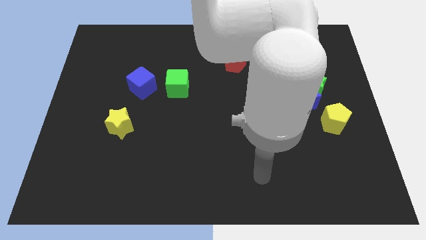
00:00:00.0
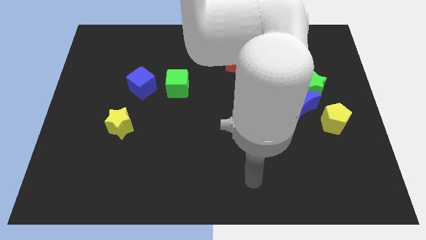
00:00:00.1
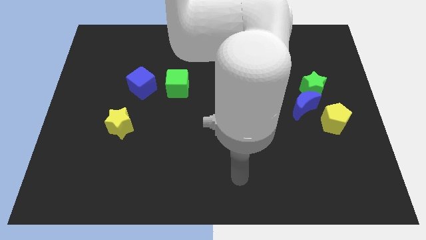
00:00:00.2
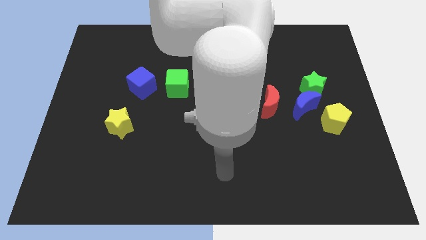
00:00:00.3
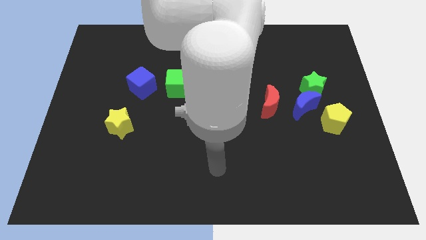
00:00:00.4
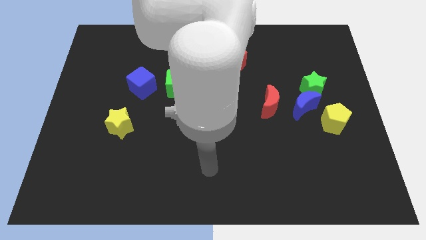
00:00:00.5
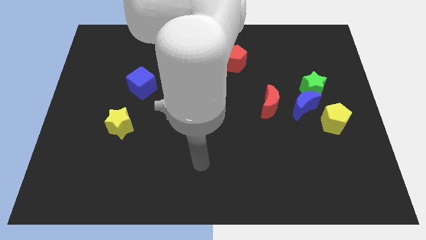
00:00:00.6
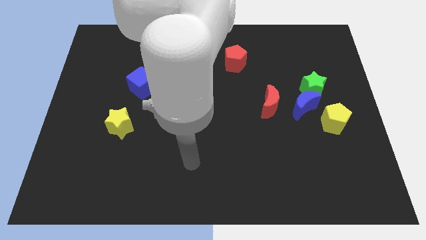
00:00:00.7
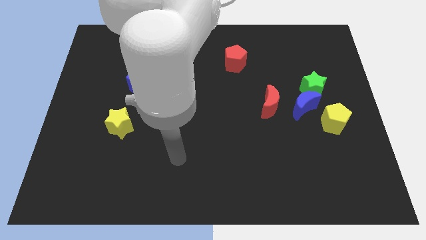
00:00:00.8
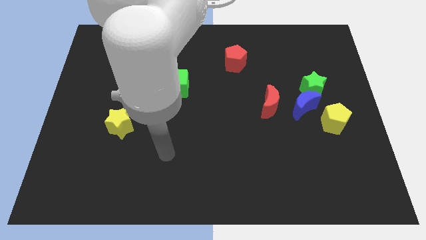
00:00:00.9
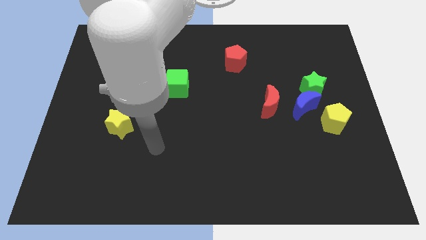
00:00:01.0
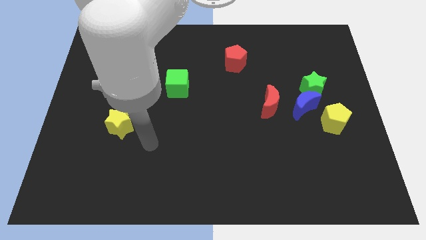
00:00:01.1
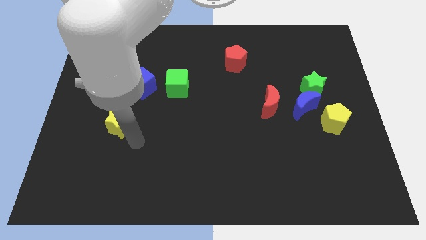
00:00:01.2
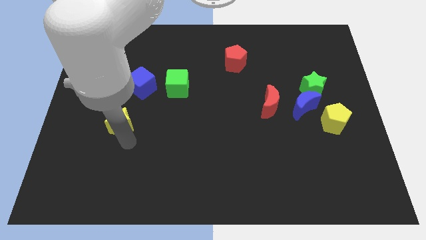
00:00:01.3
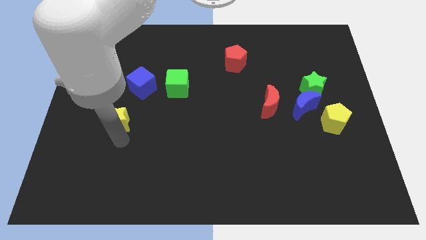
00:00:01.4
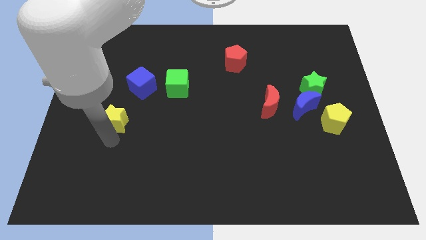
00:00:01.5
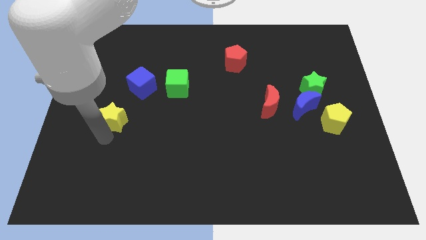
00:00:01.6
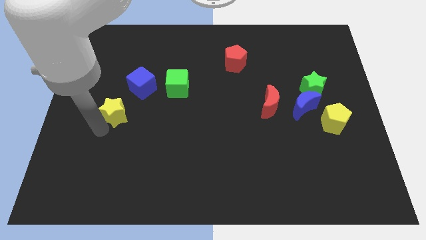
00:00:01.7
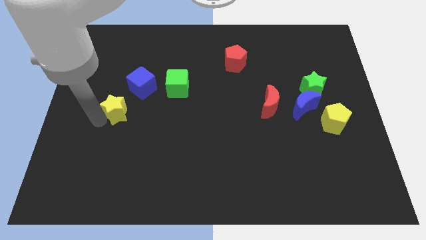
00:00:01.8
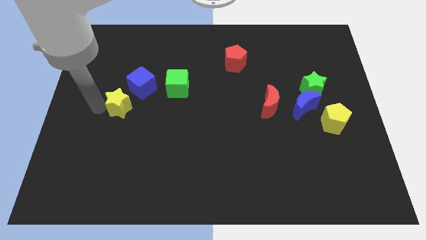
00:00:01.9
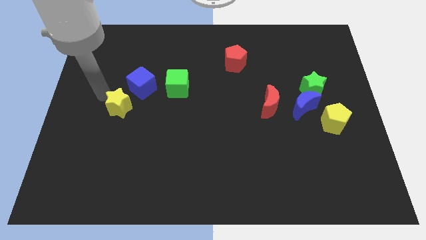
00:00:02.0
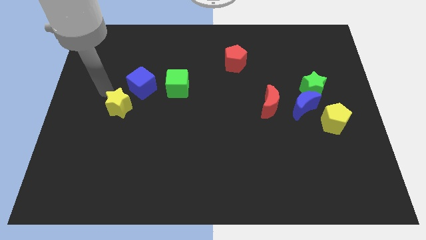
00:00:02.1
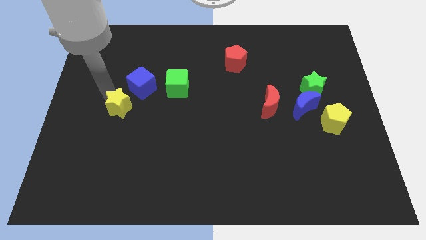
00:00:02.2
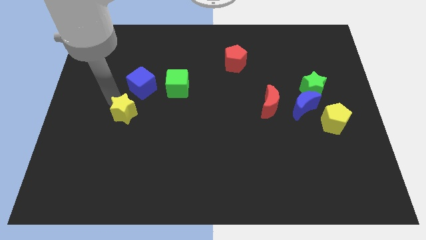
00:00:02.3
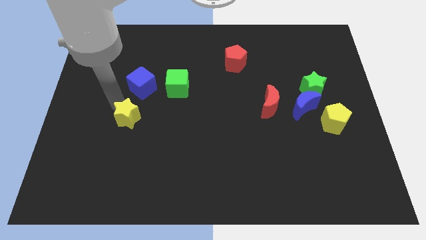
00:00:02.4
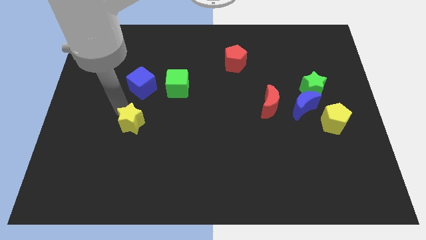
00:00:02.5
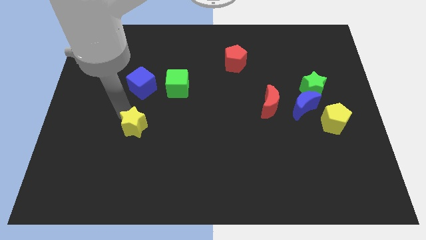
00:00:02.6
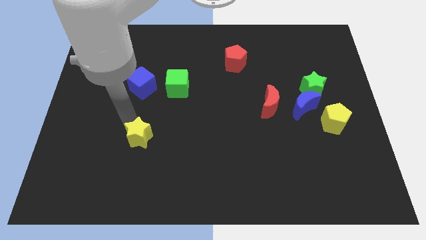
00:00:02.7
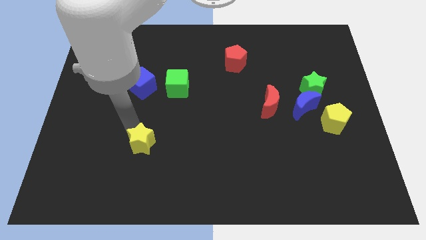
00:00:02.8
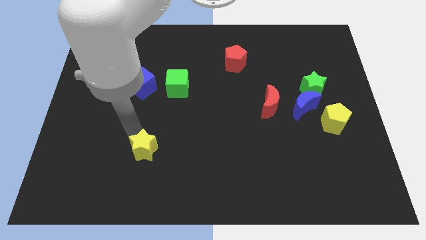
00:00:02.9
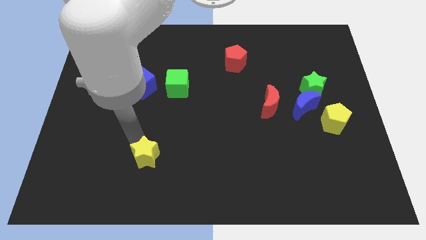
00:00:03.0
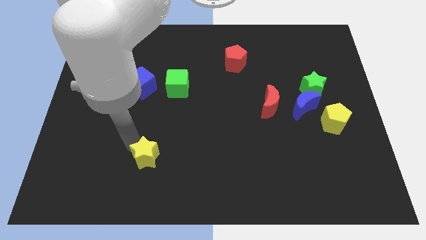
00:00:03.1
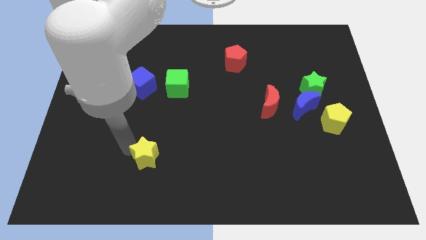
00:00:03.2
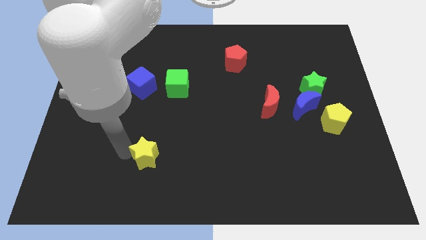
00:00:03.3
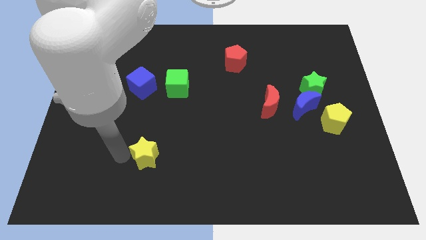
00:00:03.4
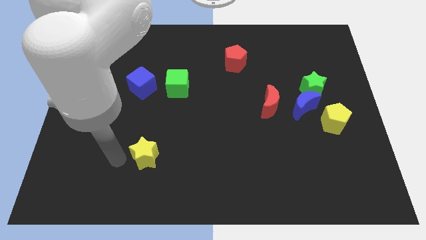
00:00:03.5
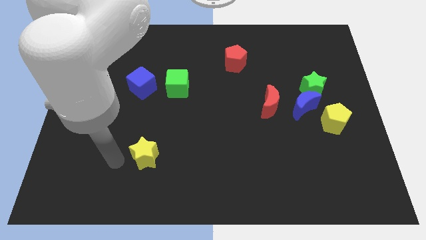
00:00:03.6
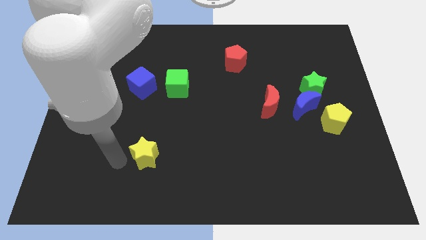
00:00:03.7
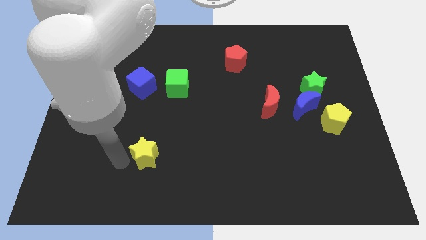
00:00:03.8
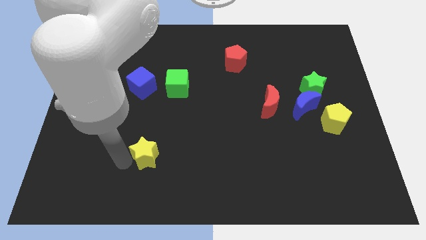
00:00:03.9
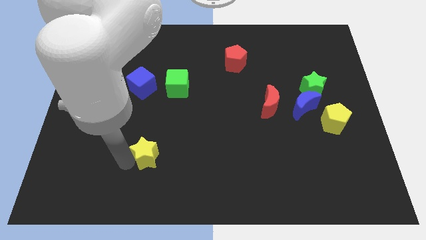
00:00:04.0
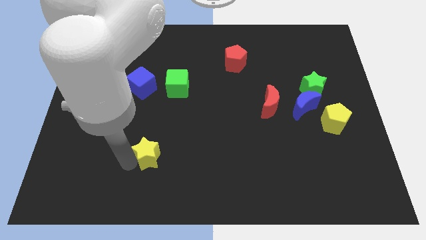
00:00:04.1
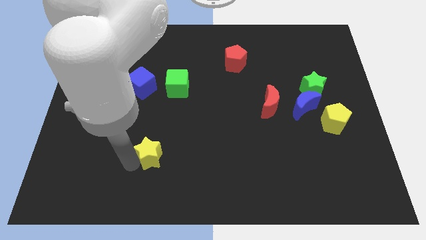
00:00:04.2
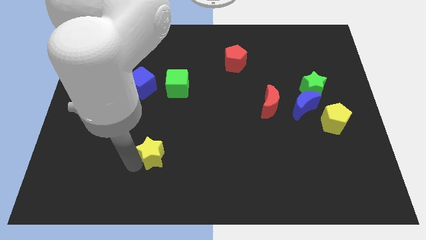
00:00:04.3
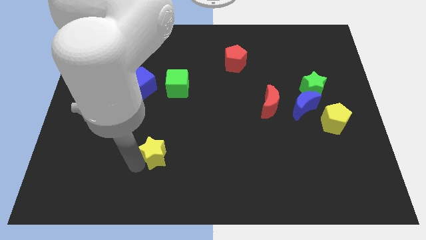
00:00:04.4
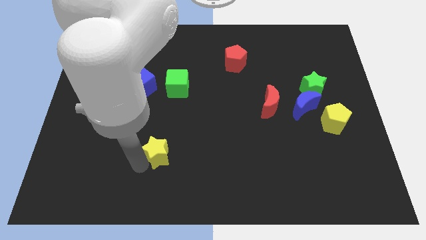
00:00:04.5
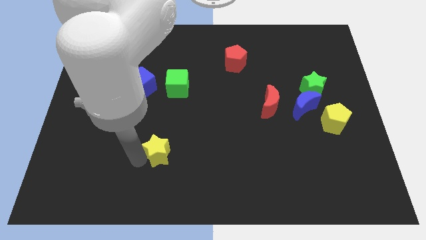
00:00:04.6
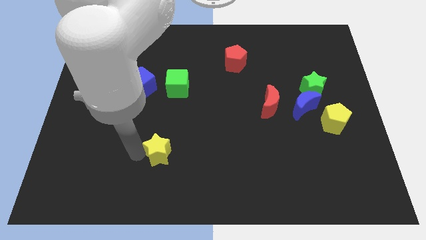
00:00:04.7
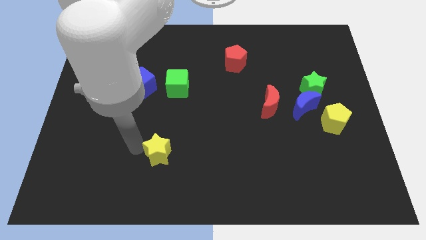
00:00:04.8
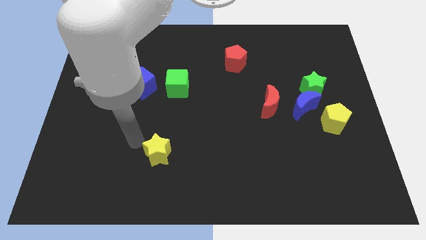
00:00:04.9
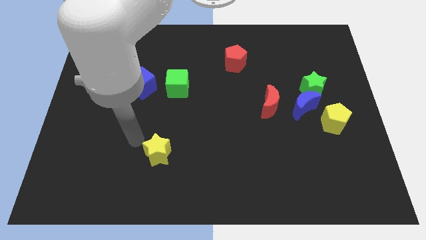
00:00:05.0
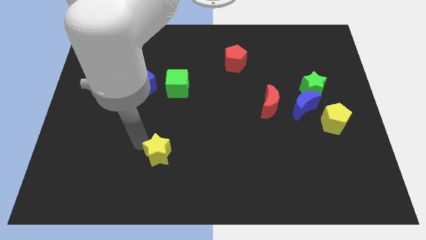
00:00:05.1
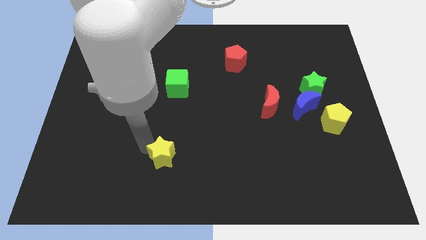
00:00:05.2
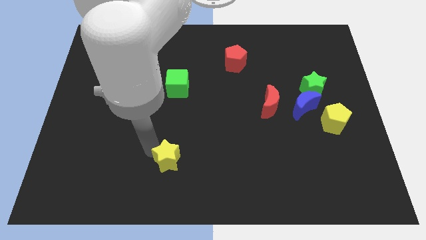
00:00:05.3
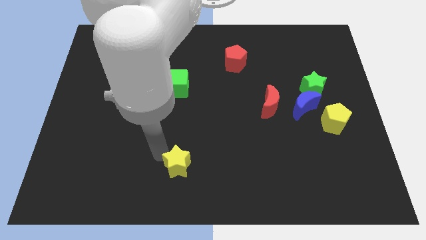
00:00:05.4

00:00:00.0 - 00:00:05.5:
move the yellow star to the bottom

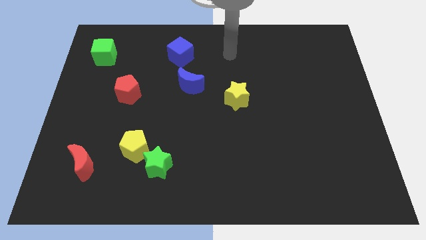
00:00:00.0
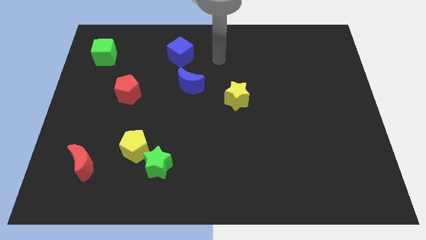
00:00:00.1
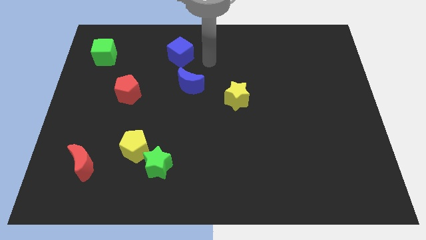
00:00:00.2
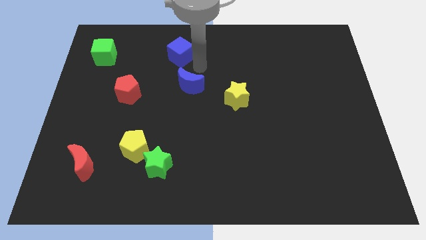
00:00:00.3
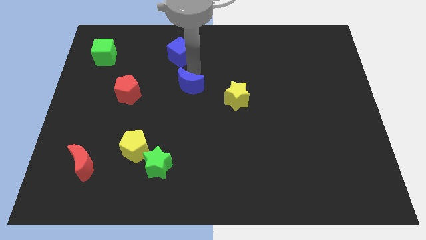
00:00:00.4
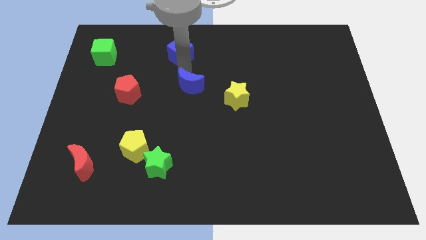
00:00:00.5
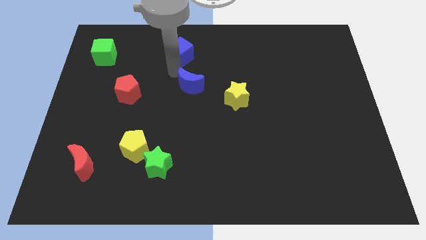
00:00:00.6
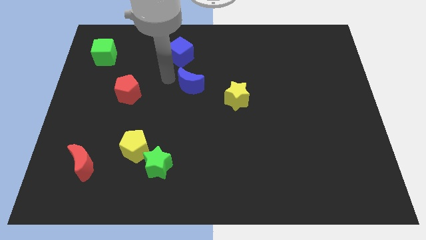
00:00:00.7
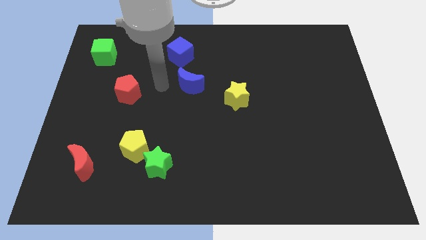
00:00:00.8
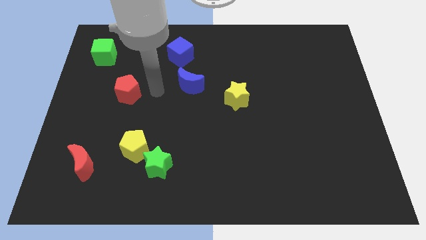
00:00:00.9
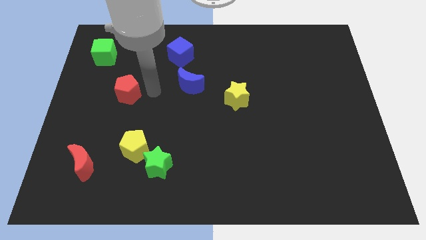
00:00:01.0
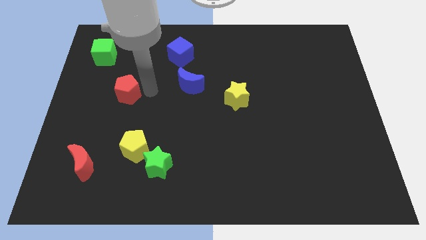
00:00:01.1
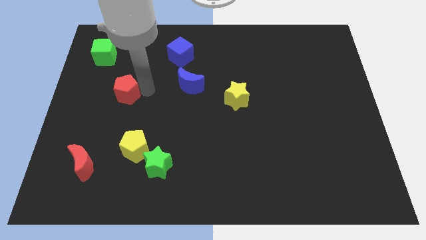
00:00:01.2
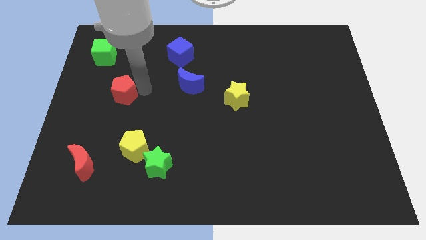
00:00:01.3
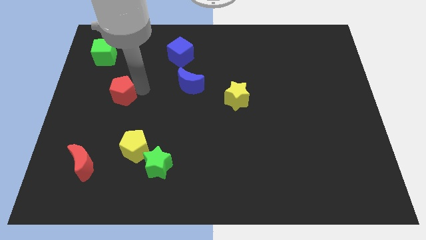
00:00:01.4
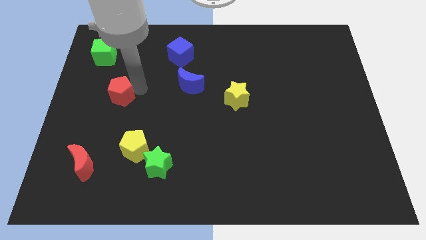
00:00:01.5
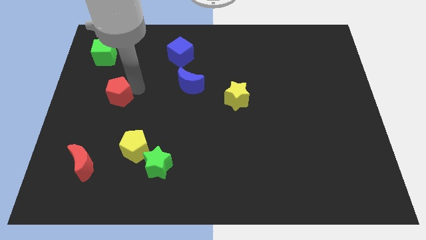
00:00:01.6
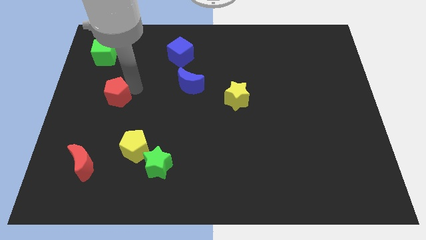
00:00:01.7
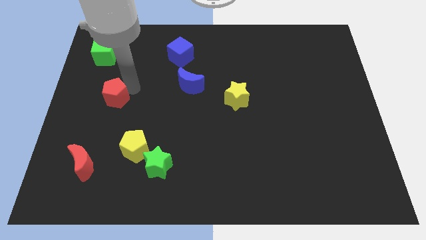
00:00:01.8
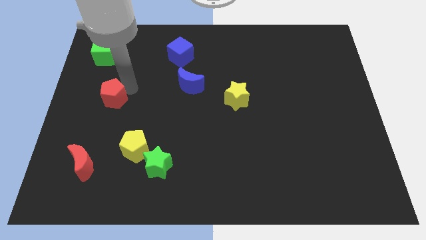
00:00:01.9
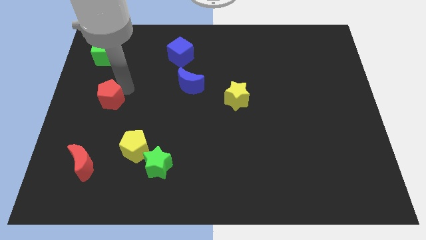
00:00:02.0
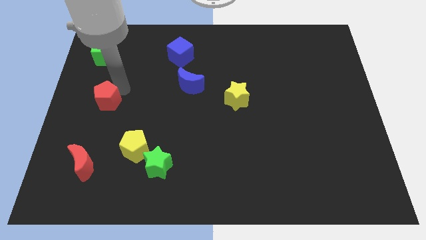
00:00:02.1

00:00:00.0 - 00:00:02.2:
slide the red pentagon to the center left
